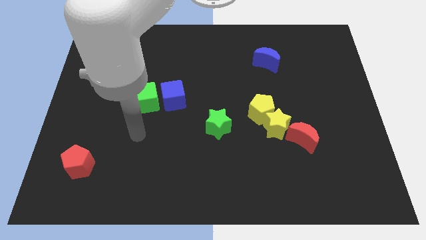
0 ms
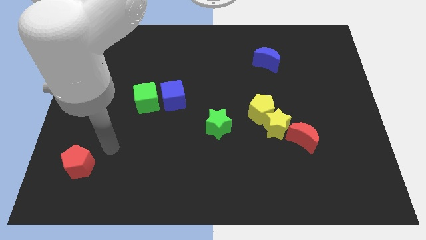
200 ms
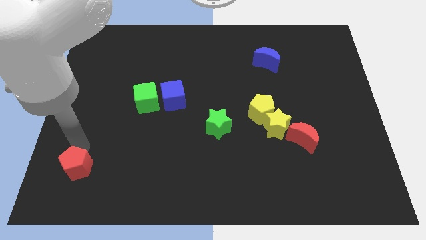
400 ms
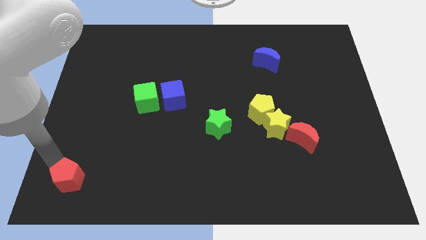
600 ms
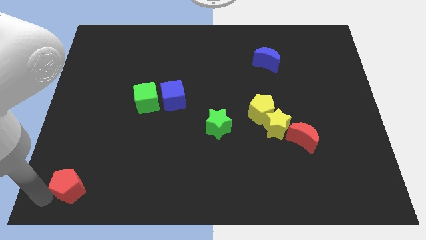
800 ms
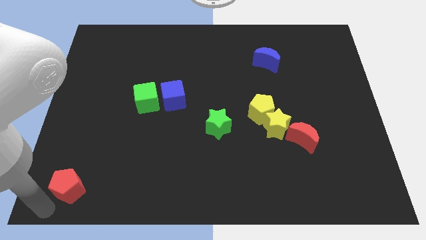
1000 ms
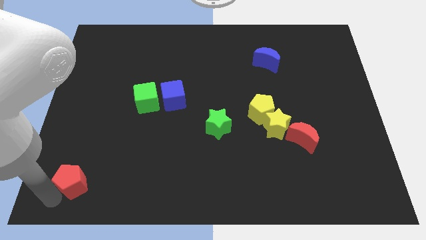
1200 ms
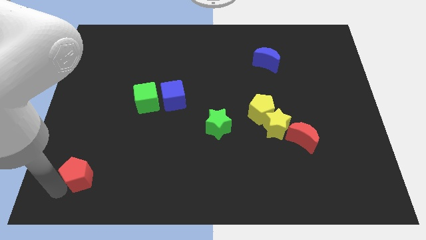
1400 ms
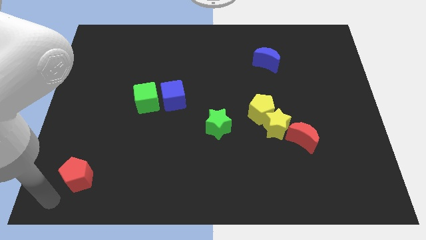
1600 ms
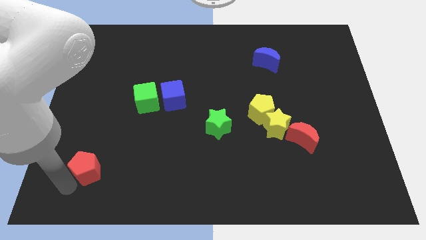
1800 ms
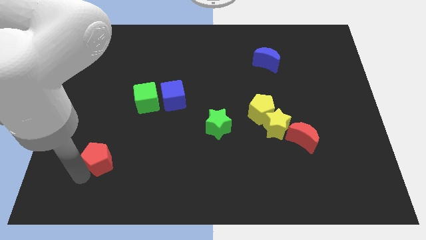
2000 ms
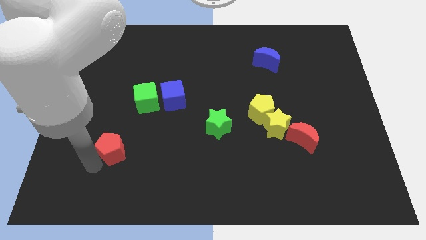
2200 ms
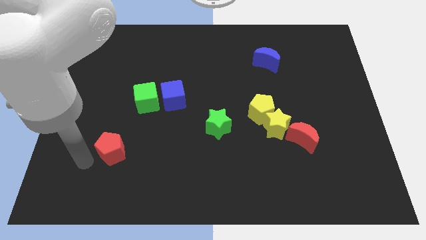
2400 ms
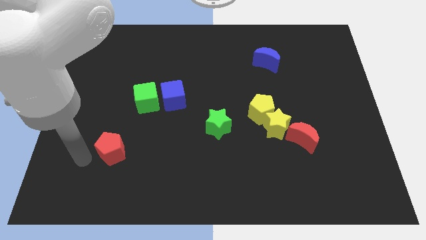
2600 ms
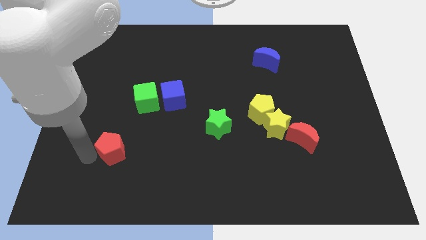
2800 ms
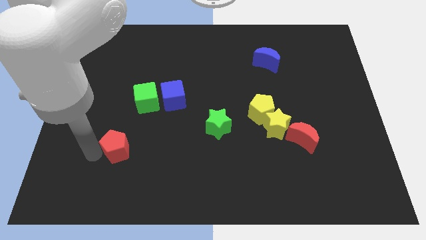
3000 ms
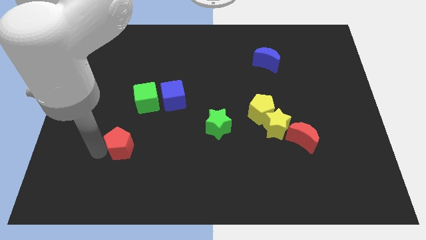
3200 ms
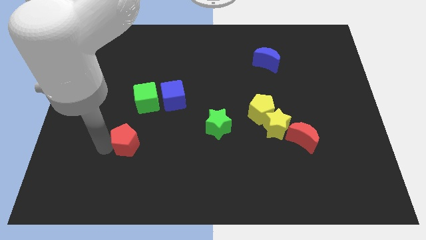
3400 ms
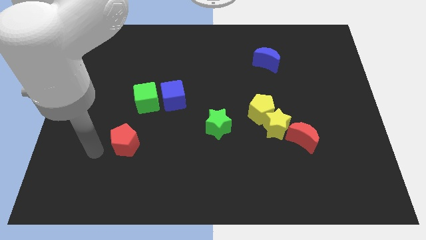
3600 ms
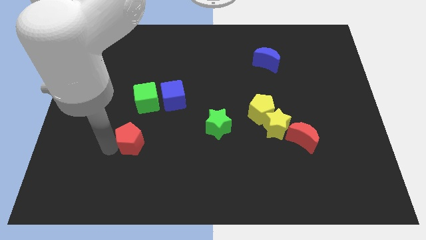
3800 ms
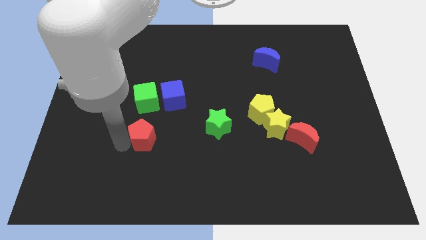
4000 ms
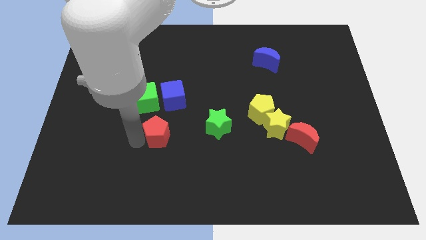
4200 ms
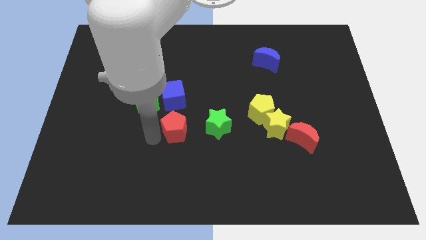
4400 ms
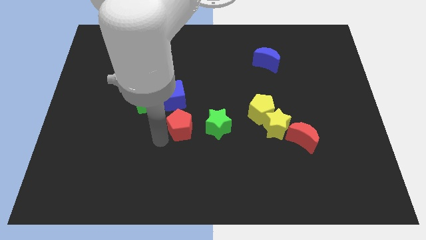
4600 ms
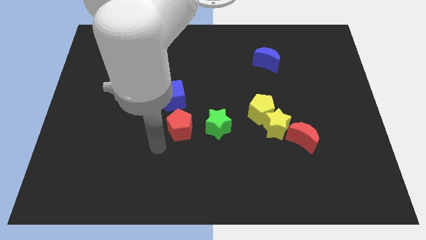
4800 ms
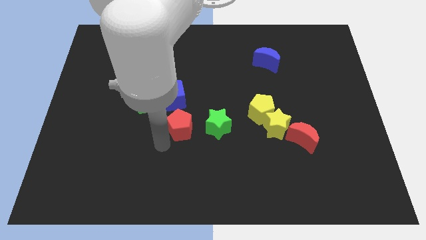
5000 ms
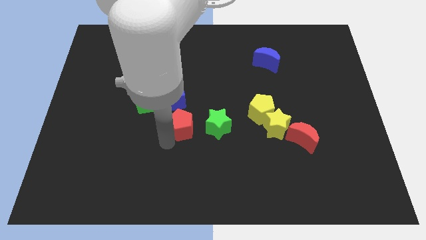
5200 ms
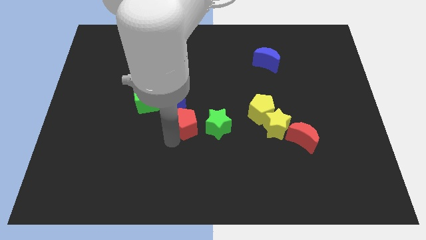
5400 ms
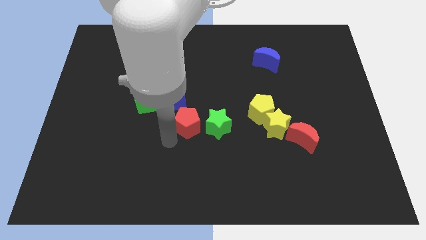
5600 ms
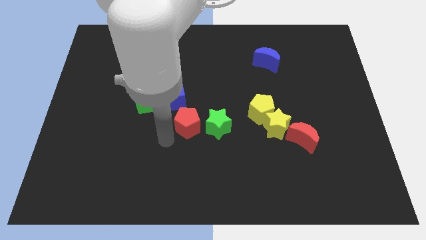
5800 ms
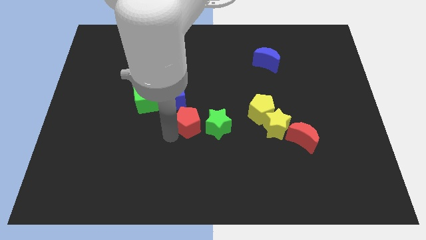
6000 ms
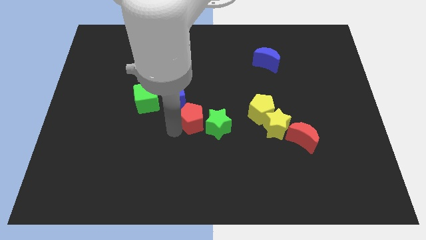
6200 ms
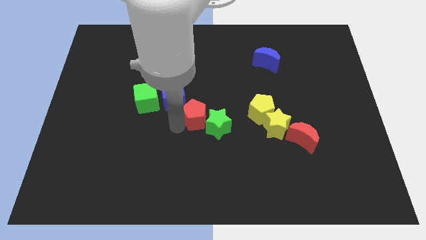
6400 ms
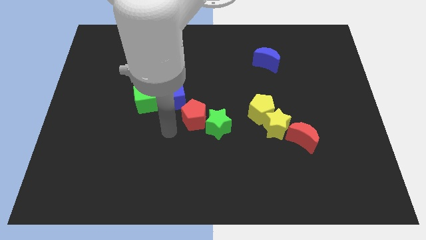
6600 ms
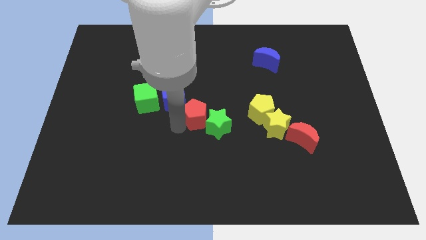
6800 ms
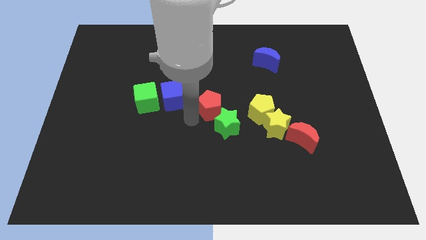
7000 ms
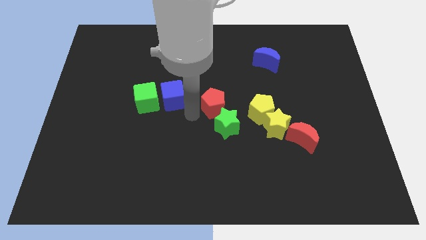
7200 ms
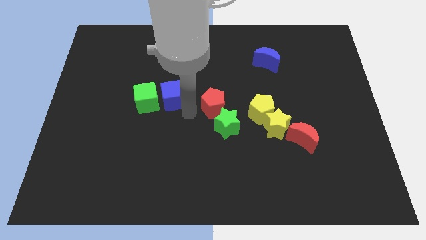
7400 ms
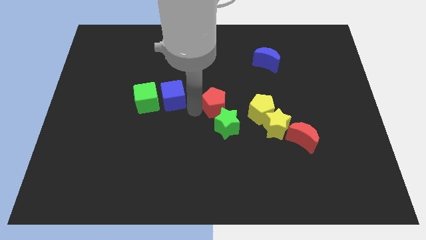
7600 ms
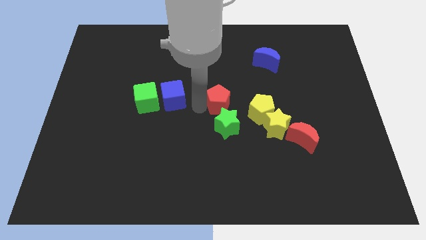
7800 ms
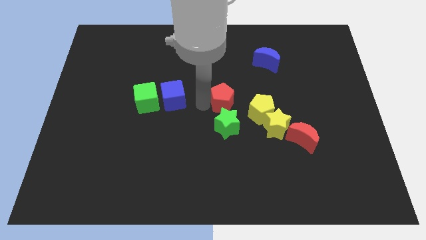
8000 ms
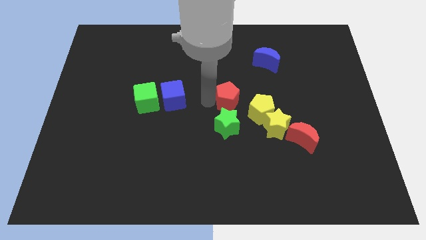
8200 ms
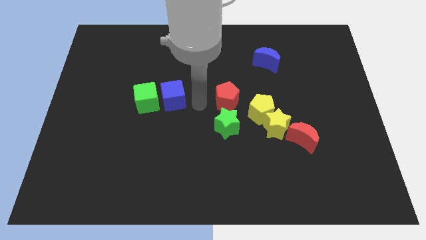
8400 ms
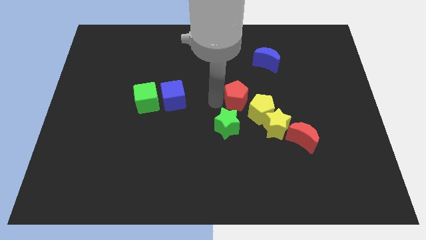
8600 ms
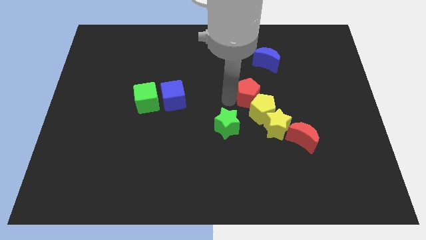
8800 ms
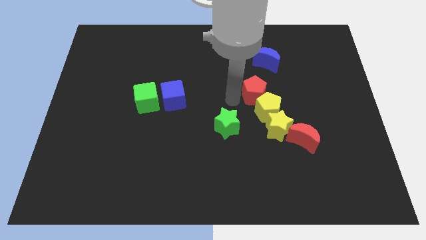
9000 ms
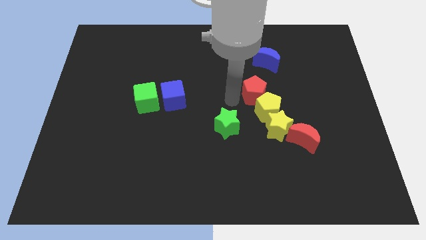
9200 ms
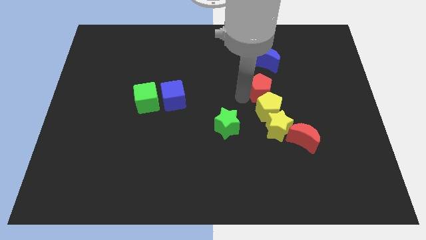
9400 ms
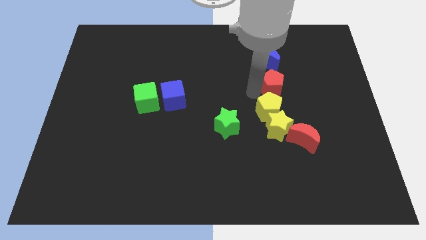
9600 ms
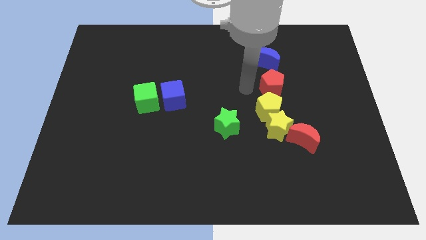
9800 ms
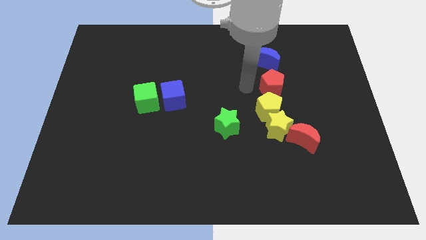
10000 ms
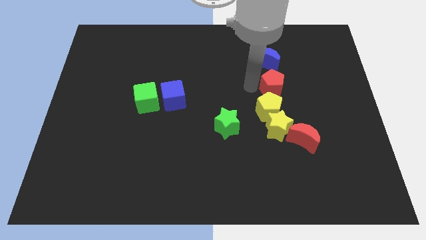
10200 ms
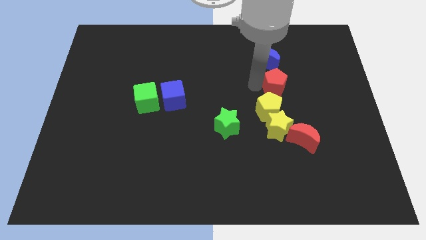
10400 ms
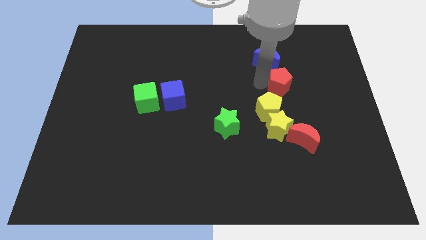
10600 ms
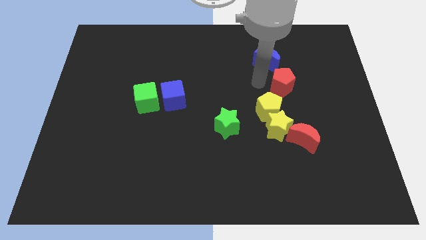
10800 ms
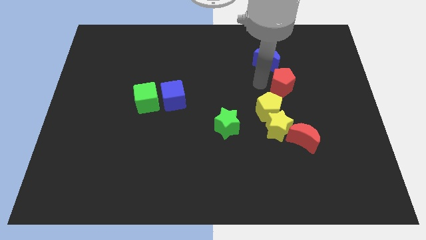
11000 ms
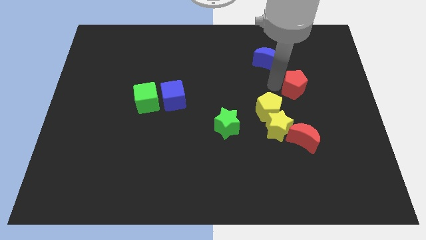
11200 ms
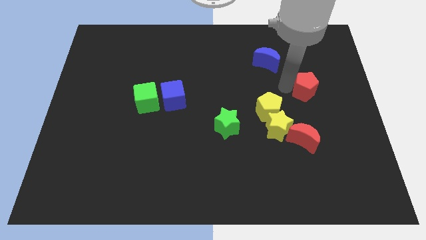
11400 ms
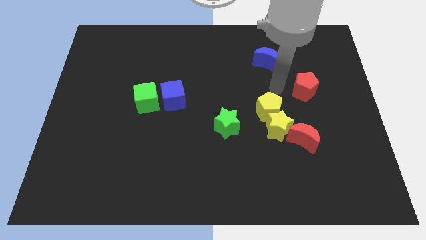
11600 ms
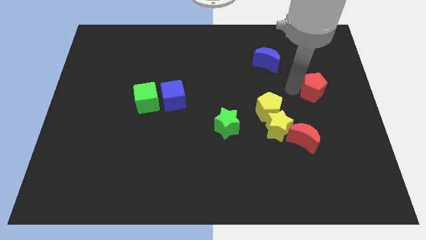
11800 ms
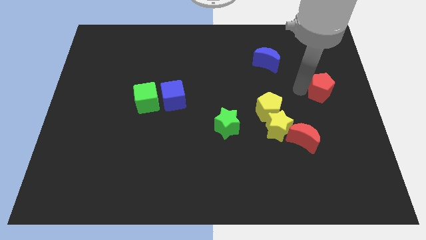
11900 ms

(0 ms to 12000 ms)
move the red pentagon to the right side of the board
